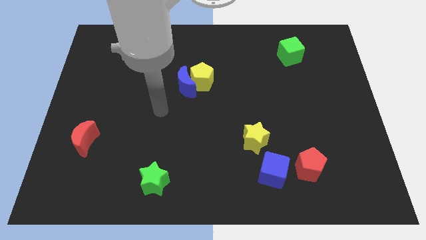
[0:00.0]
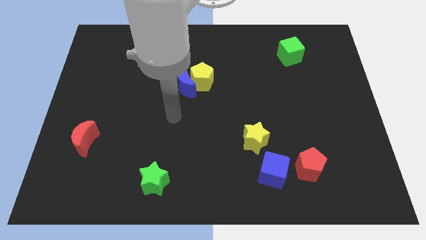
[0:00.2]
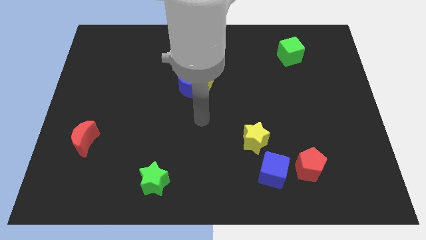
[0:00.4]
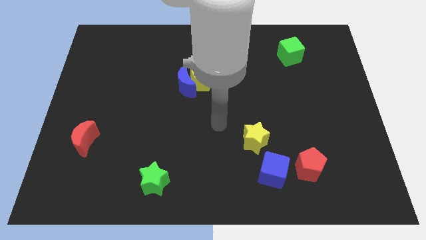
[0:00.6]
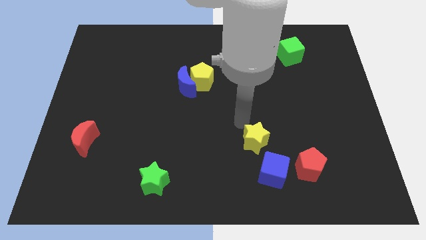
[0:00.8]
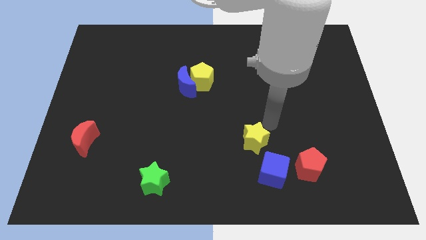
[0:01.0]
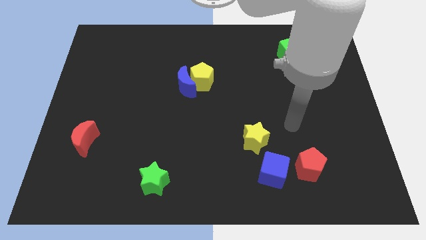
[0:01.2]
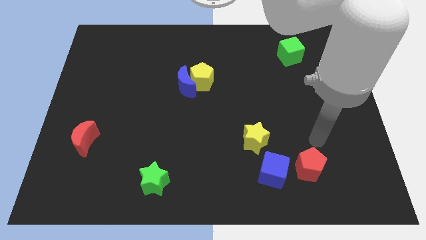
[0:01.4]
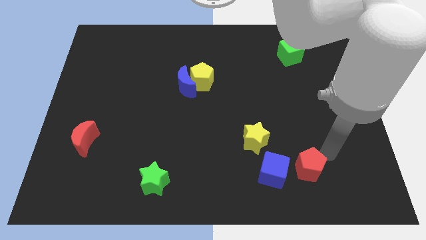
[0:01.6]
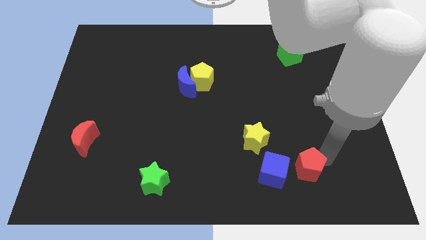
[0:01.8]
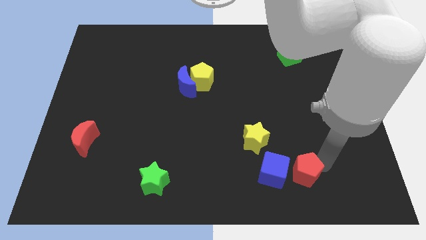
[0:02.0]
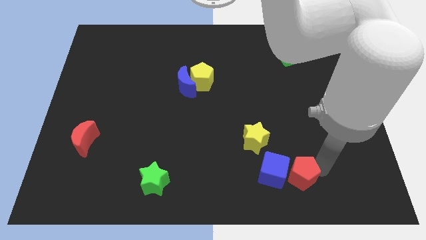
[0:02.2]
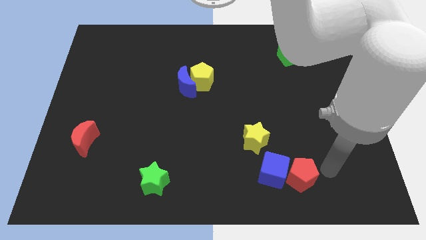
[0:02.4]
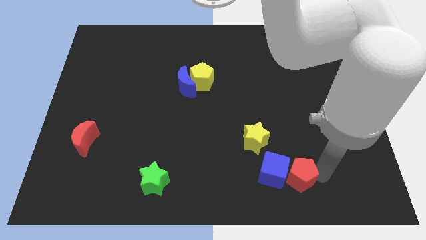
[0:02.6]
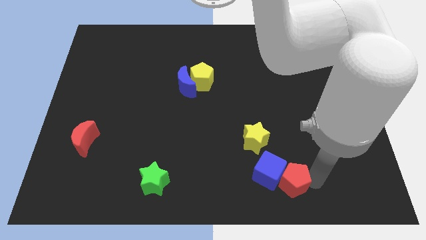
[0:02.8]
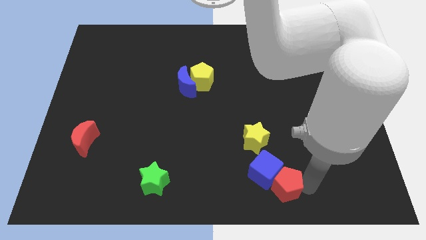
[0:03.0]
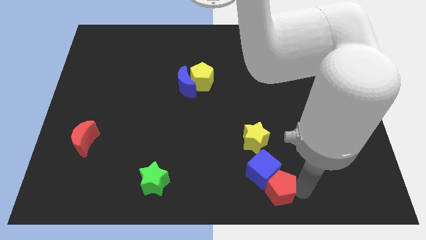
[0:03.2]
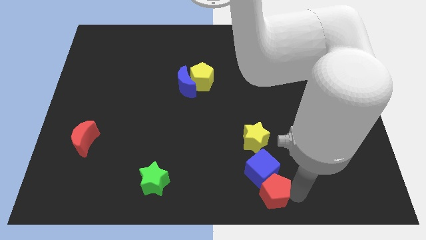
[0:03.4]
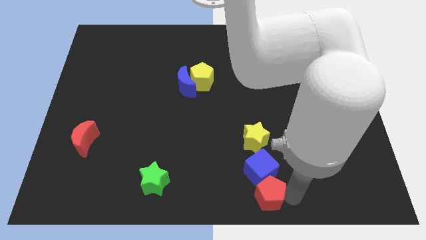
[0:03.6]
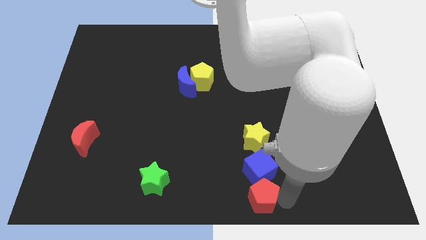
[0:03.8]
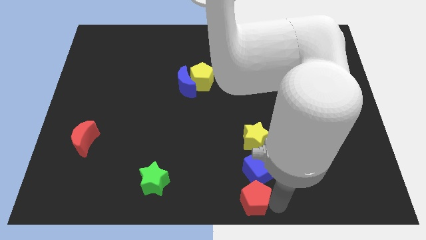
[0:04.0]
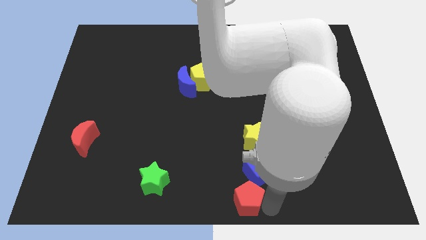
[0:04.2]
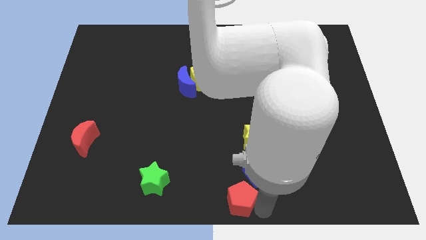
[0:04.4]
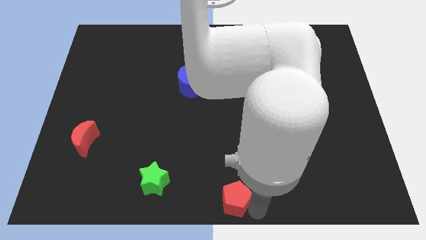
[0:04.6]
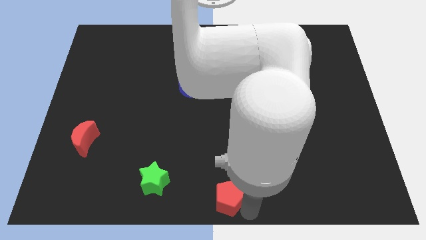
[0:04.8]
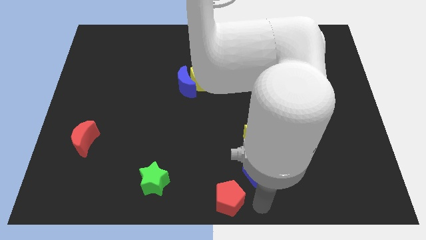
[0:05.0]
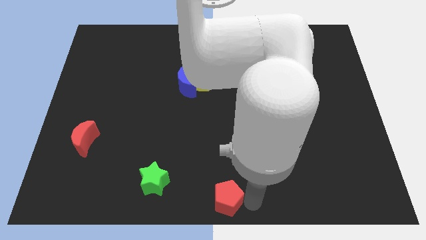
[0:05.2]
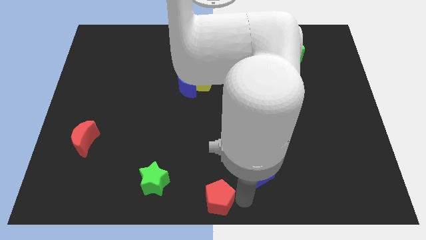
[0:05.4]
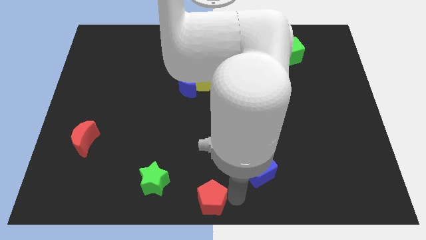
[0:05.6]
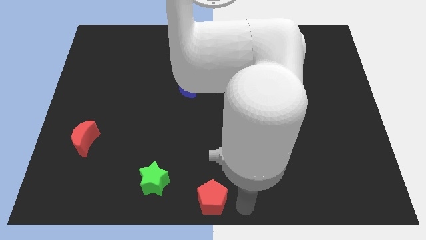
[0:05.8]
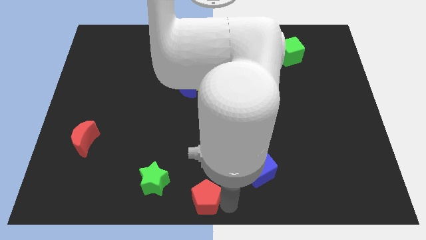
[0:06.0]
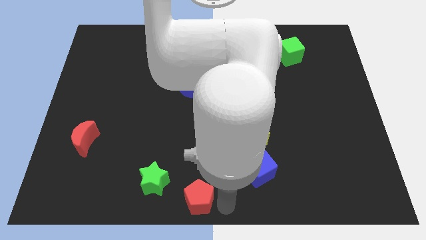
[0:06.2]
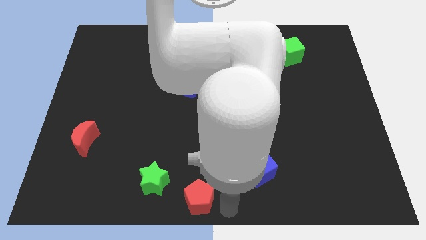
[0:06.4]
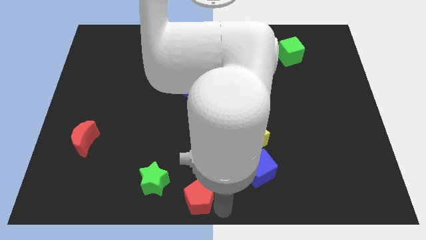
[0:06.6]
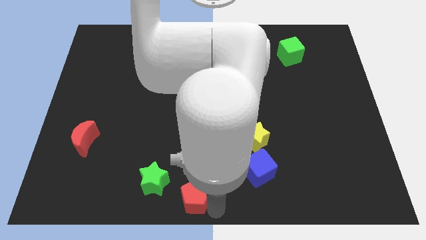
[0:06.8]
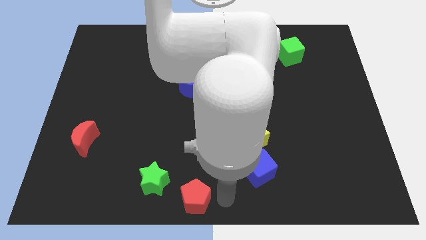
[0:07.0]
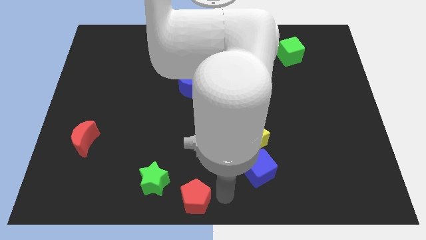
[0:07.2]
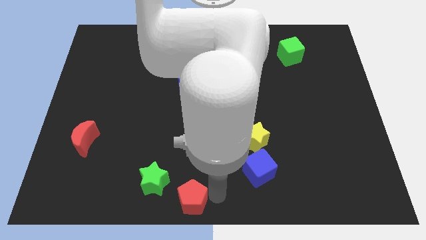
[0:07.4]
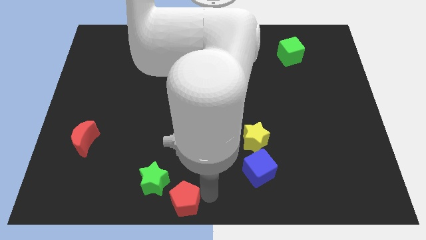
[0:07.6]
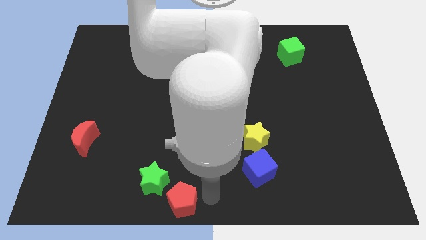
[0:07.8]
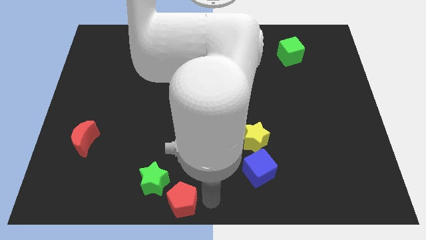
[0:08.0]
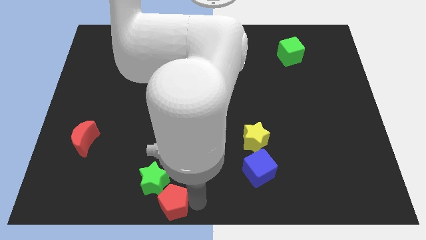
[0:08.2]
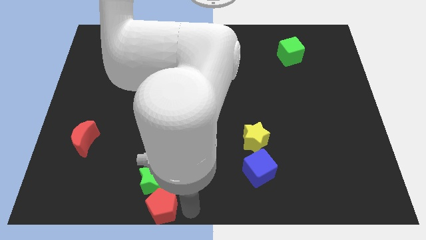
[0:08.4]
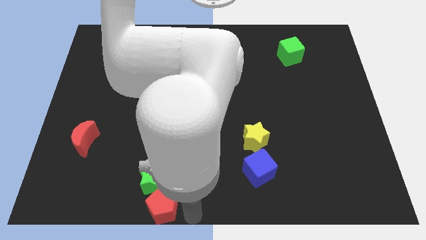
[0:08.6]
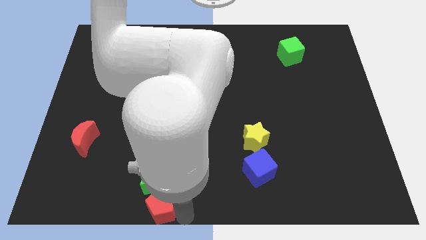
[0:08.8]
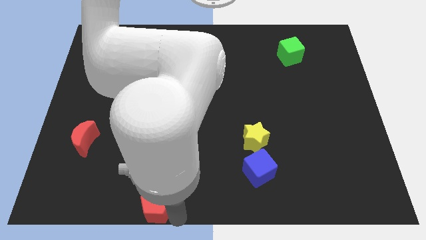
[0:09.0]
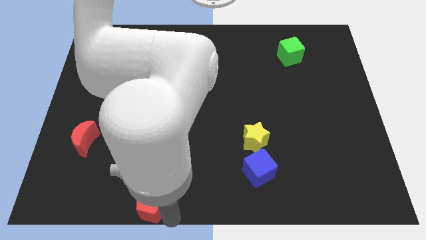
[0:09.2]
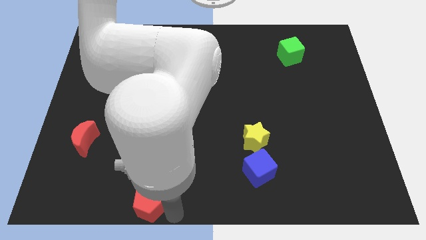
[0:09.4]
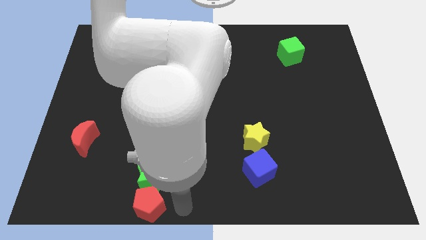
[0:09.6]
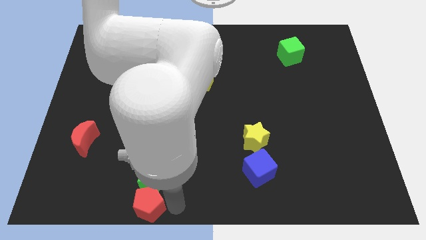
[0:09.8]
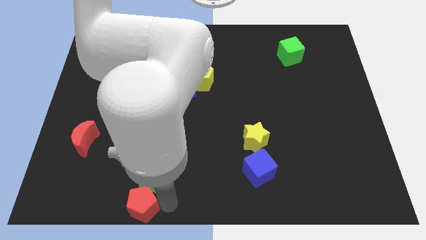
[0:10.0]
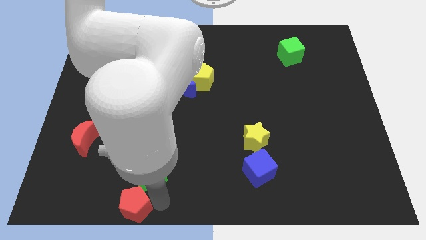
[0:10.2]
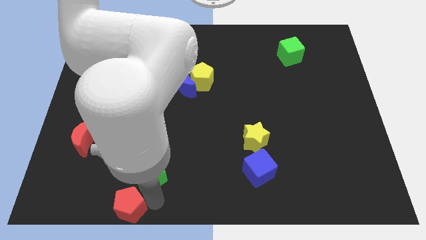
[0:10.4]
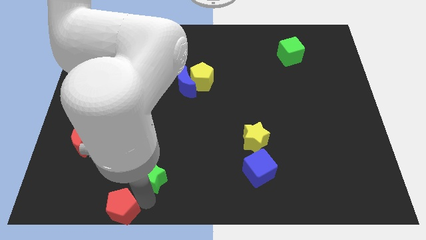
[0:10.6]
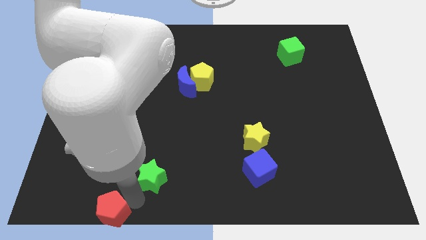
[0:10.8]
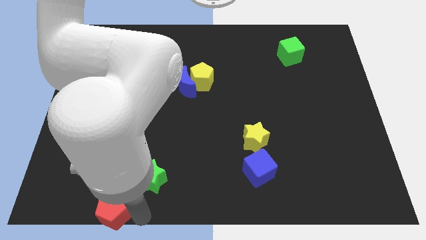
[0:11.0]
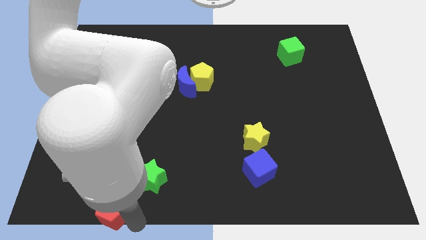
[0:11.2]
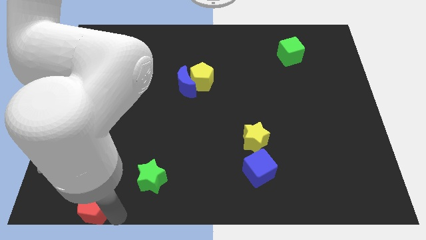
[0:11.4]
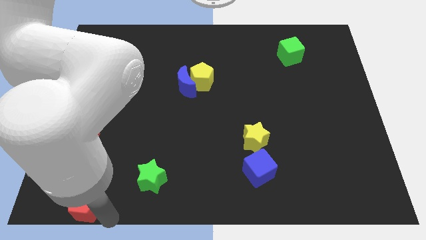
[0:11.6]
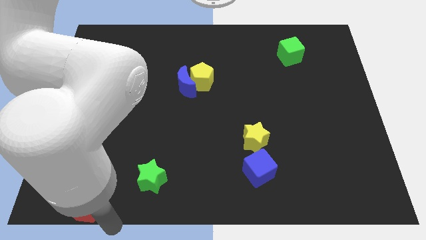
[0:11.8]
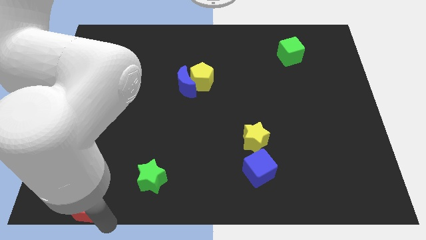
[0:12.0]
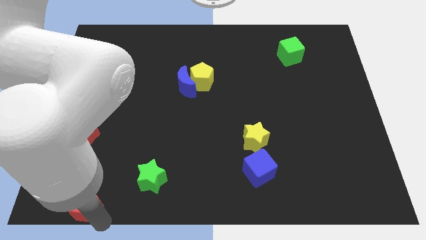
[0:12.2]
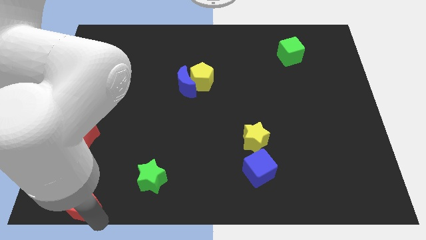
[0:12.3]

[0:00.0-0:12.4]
put the red pentagon to the bottom left corner
